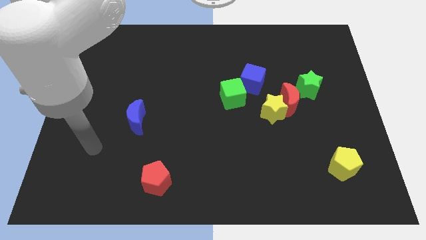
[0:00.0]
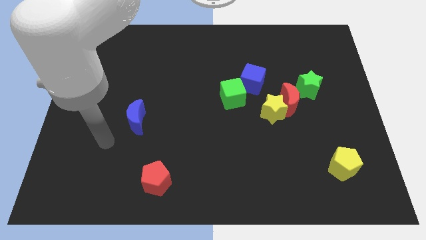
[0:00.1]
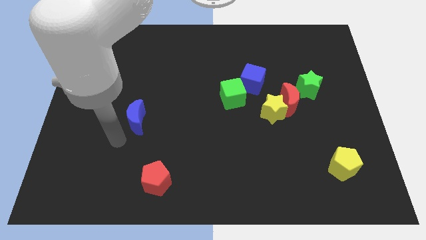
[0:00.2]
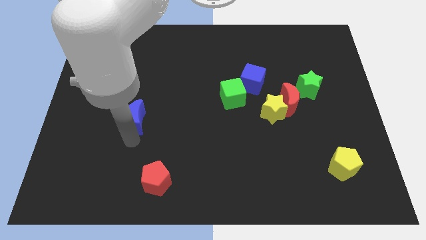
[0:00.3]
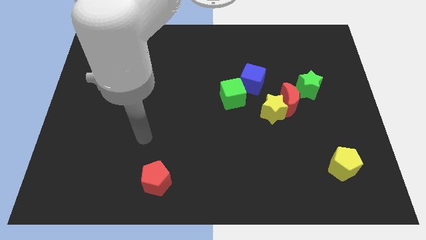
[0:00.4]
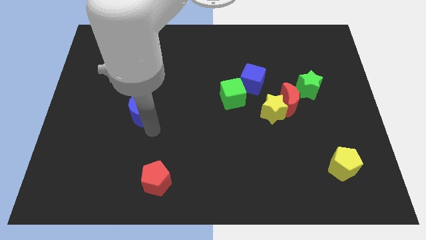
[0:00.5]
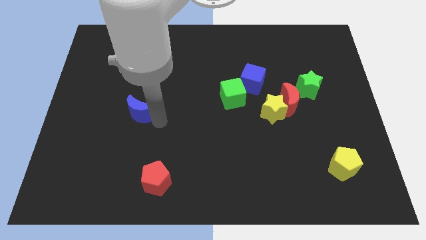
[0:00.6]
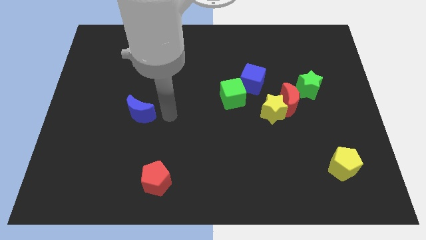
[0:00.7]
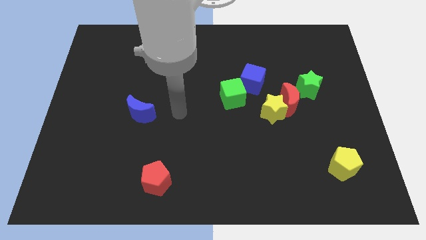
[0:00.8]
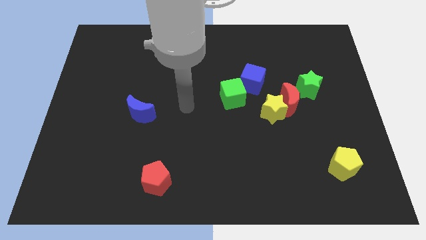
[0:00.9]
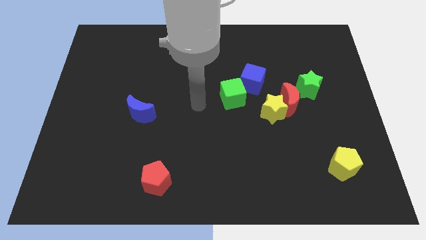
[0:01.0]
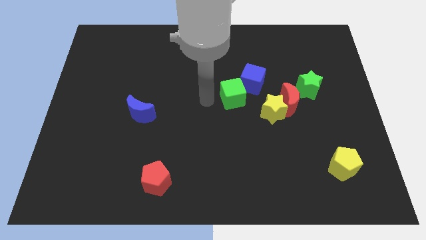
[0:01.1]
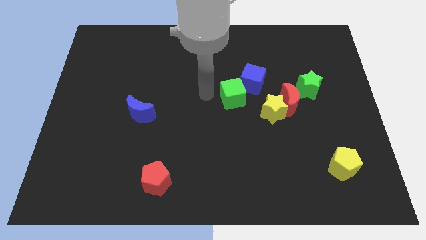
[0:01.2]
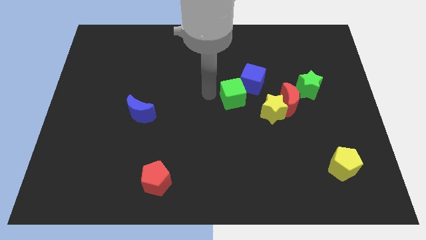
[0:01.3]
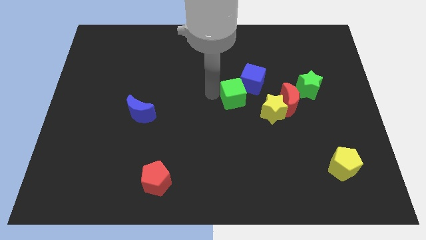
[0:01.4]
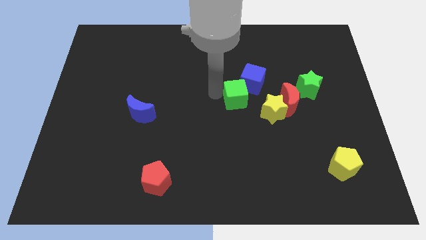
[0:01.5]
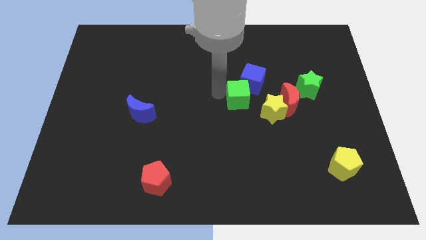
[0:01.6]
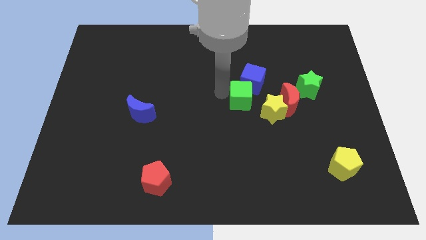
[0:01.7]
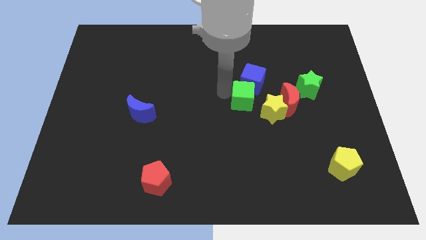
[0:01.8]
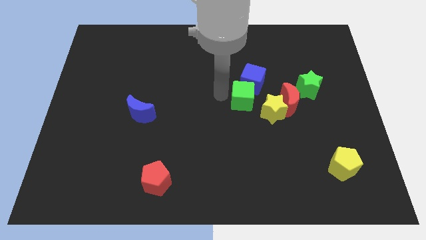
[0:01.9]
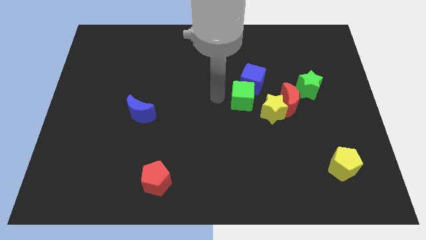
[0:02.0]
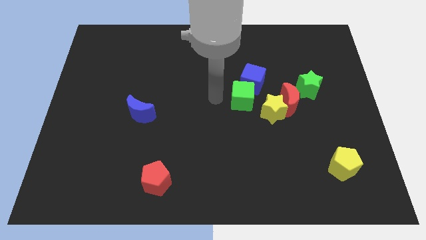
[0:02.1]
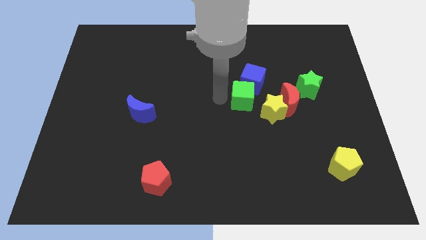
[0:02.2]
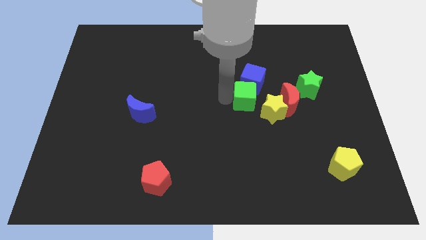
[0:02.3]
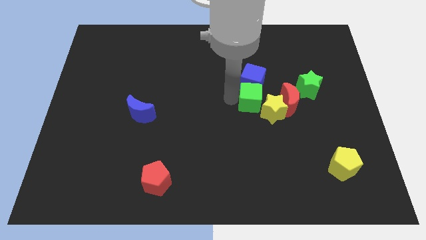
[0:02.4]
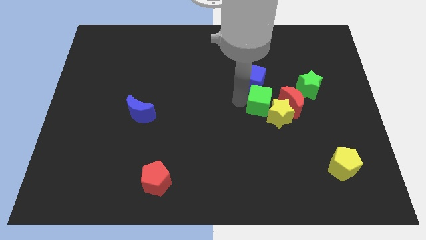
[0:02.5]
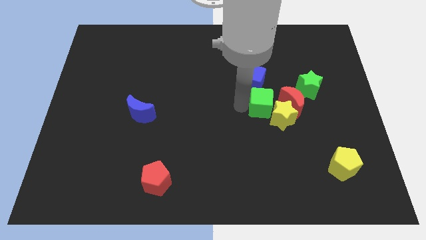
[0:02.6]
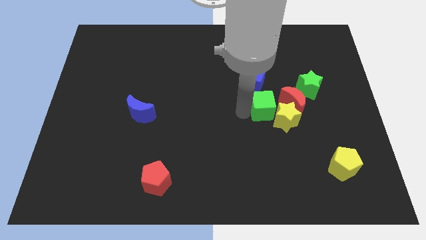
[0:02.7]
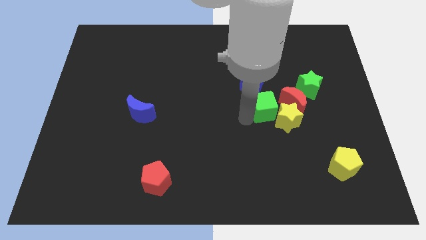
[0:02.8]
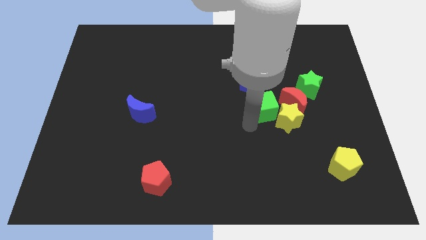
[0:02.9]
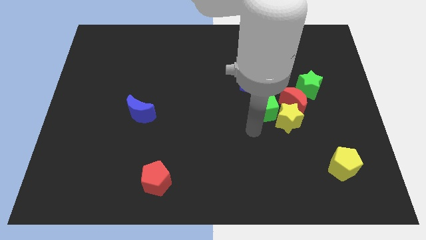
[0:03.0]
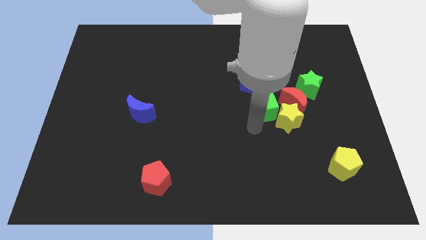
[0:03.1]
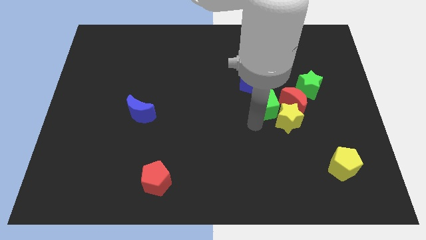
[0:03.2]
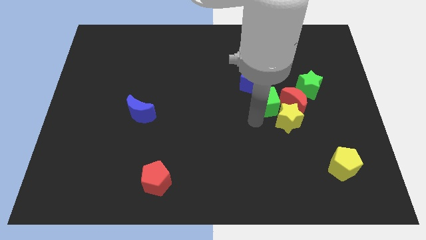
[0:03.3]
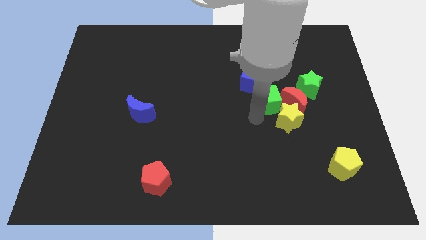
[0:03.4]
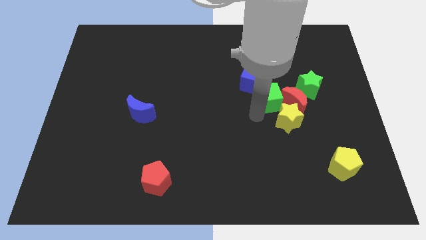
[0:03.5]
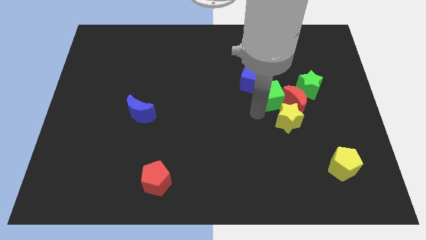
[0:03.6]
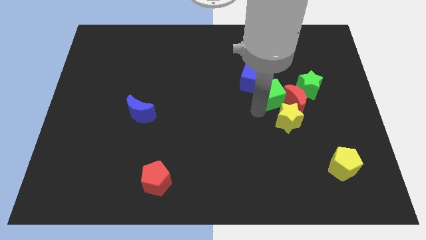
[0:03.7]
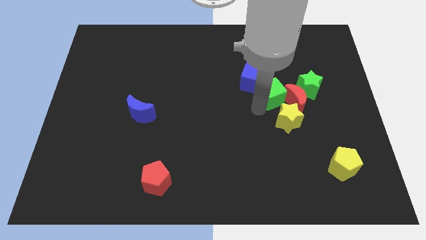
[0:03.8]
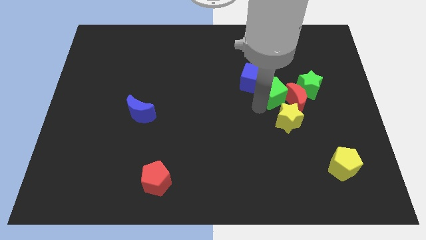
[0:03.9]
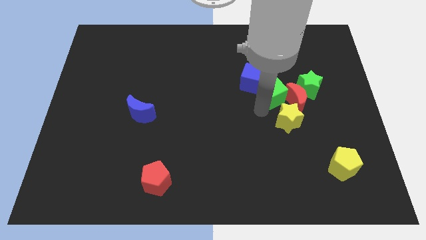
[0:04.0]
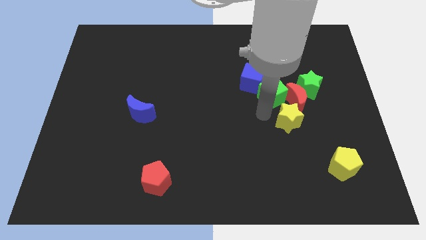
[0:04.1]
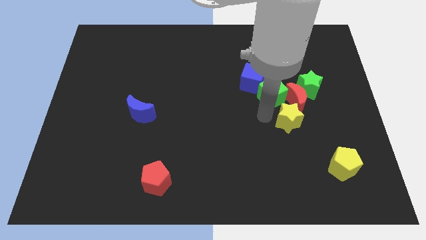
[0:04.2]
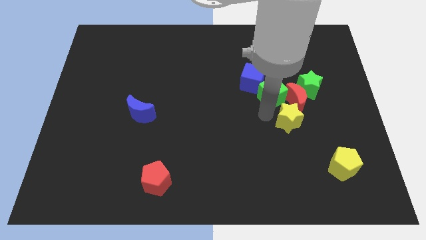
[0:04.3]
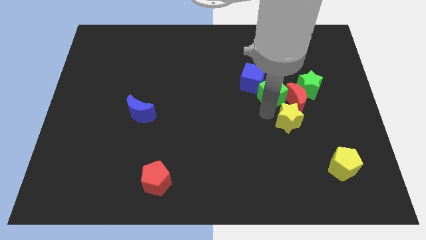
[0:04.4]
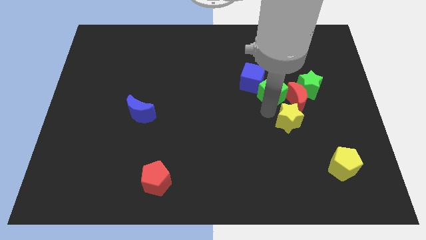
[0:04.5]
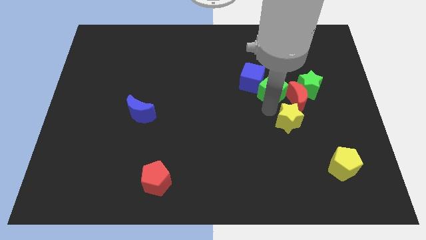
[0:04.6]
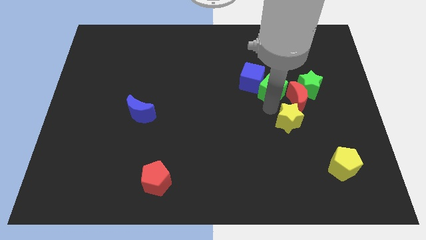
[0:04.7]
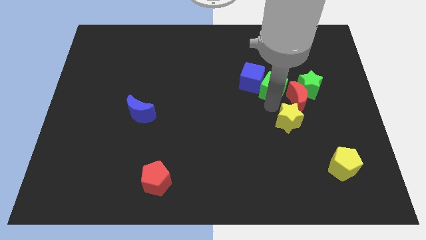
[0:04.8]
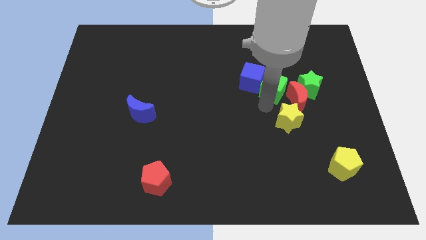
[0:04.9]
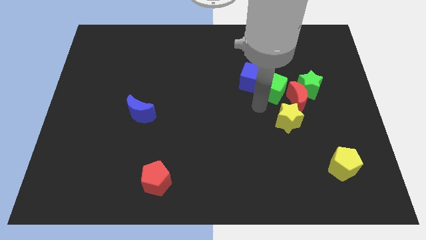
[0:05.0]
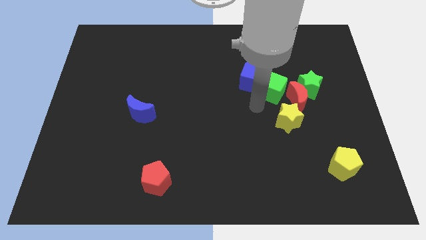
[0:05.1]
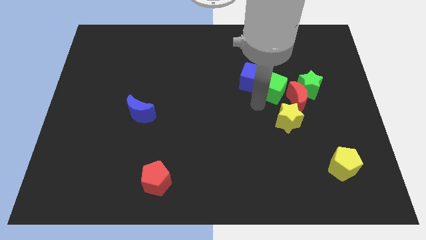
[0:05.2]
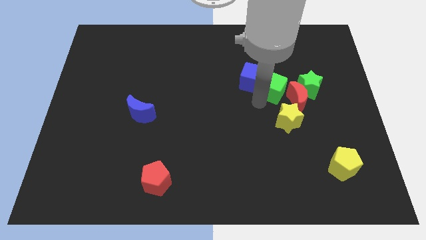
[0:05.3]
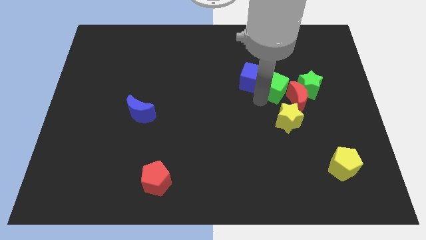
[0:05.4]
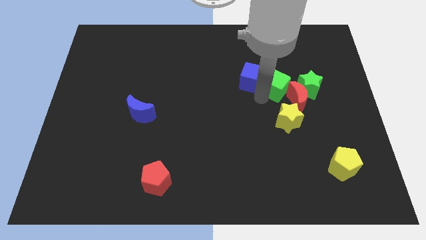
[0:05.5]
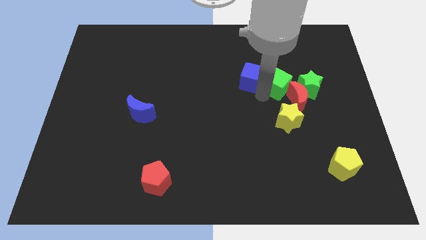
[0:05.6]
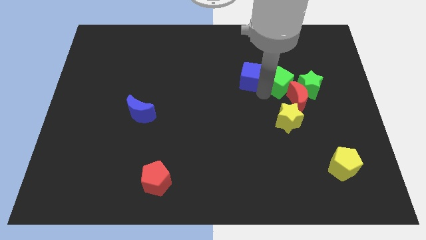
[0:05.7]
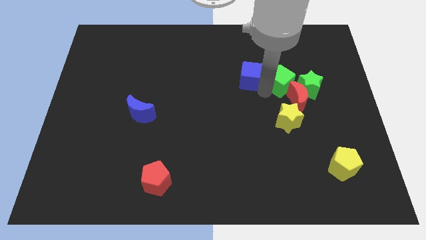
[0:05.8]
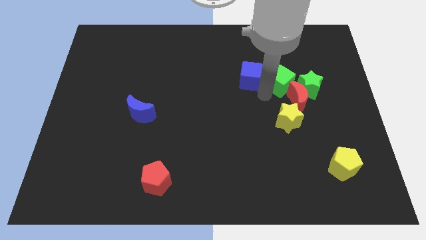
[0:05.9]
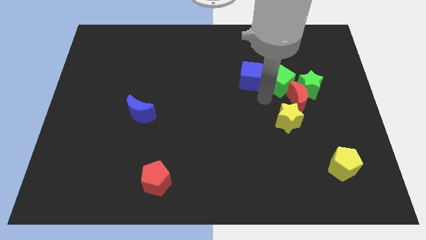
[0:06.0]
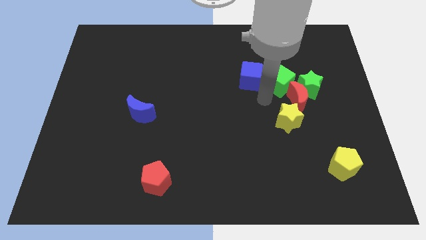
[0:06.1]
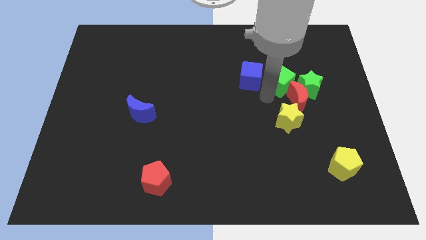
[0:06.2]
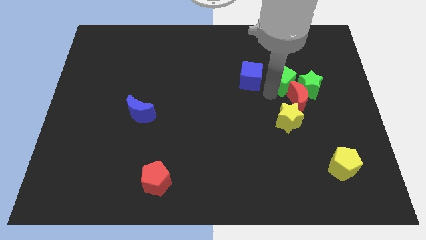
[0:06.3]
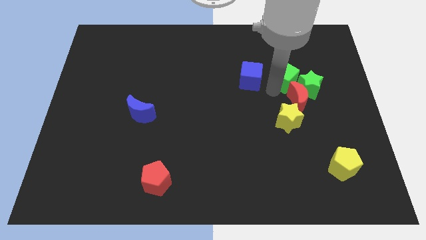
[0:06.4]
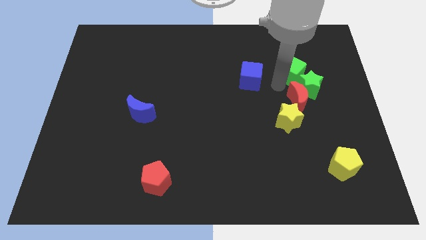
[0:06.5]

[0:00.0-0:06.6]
slide the green cube above the green star
